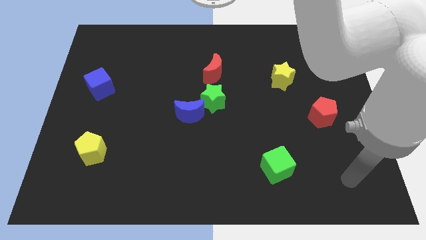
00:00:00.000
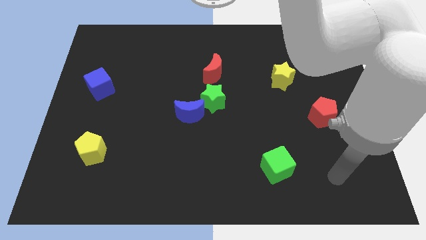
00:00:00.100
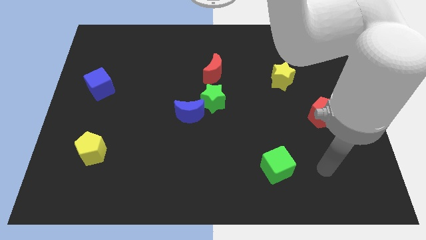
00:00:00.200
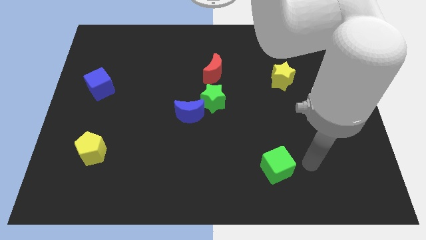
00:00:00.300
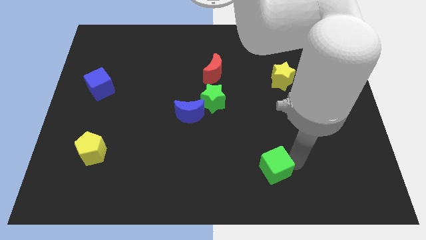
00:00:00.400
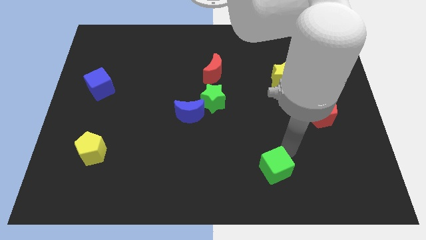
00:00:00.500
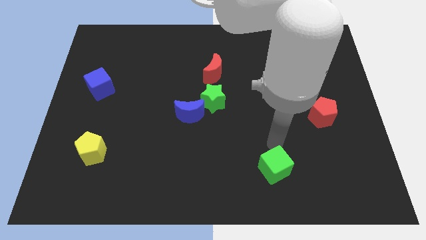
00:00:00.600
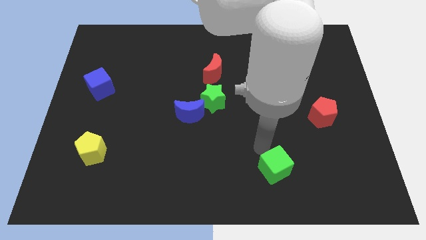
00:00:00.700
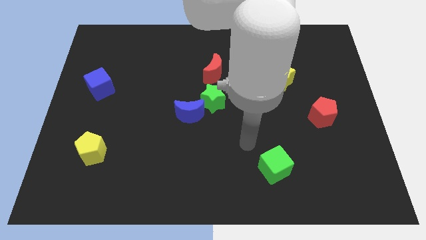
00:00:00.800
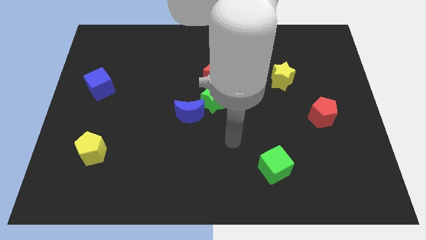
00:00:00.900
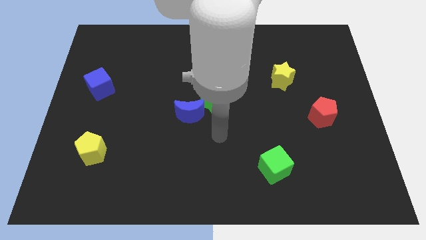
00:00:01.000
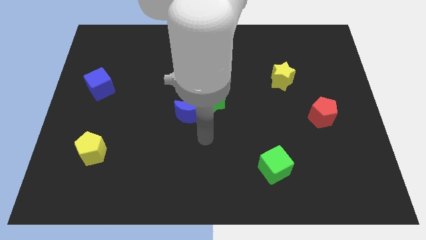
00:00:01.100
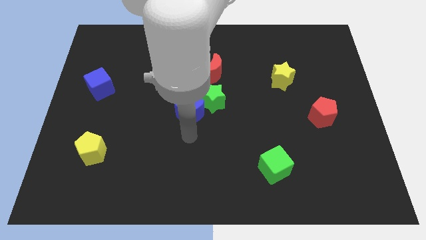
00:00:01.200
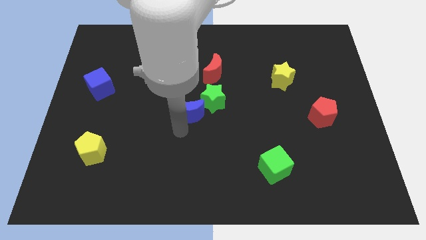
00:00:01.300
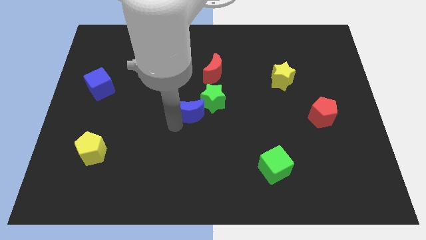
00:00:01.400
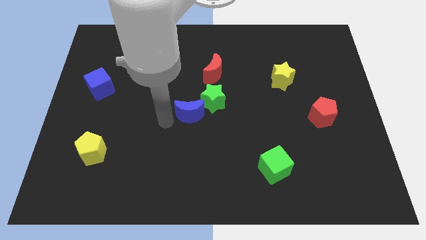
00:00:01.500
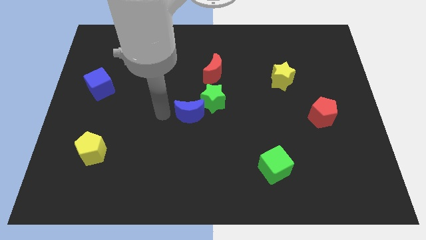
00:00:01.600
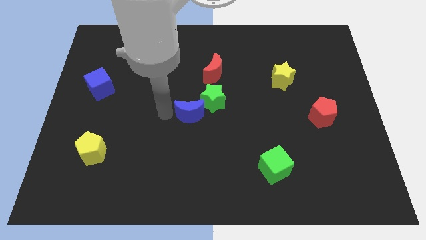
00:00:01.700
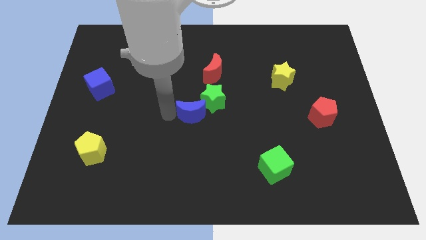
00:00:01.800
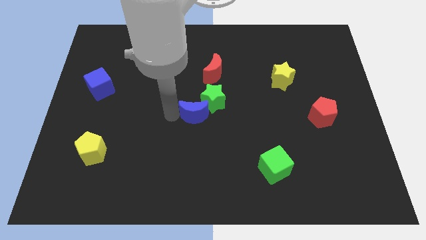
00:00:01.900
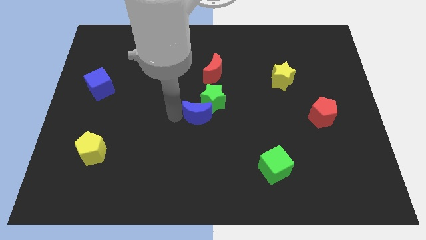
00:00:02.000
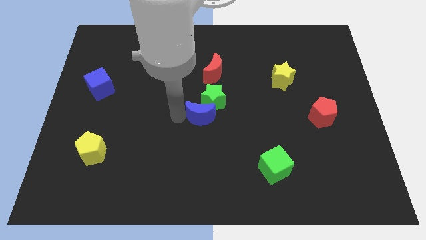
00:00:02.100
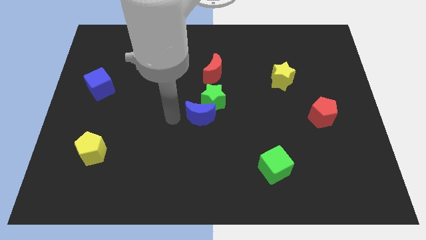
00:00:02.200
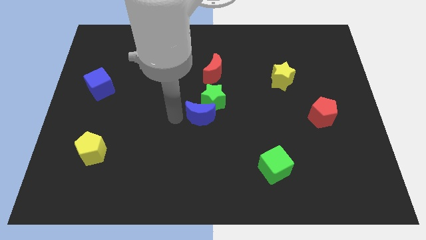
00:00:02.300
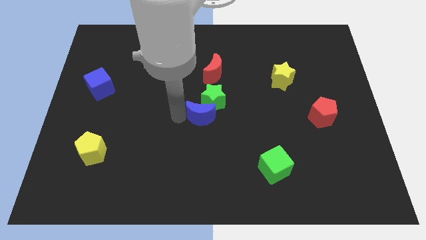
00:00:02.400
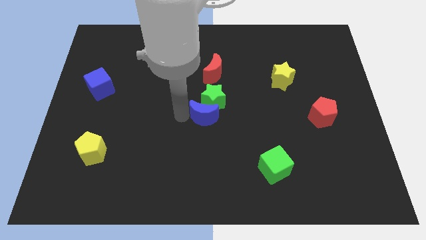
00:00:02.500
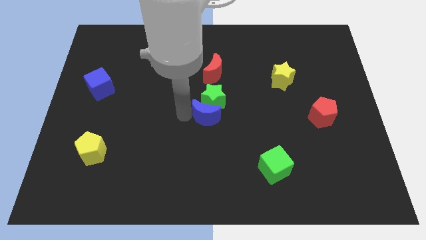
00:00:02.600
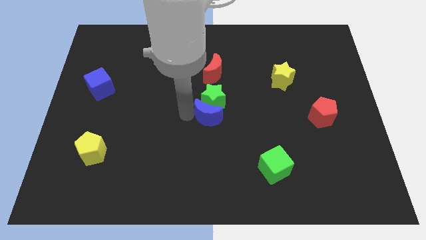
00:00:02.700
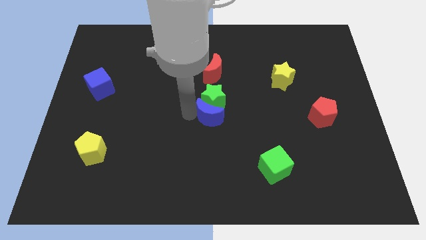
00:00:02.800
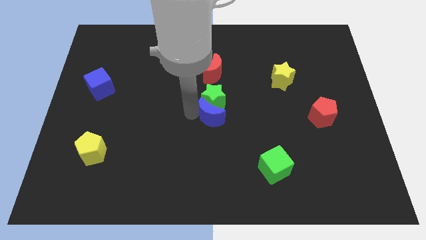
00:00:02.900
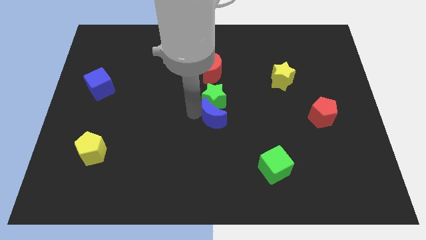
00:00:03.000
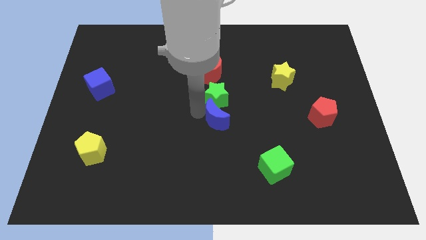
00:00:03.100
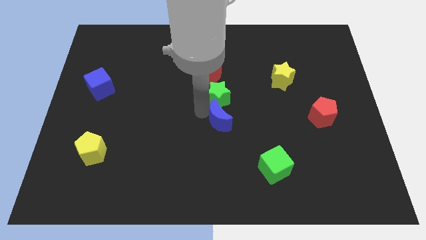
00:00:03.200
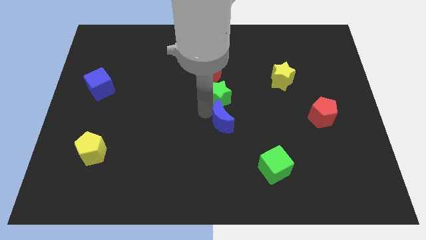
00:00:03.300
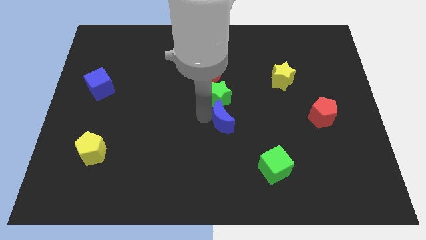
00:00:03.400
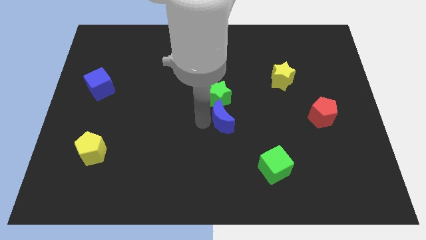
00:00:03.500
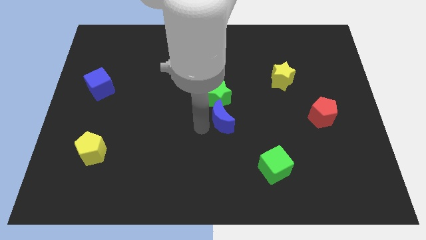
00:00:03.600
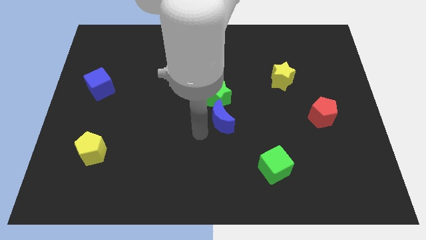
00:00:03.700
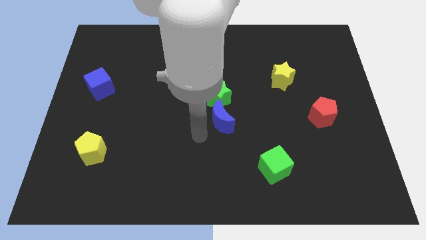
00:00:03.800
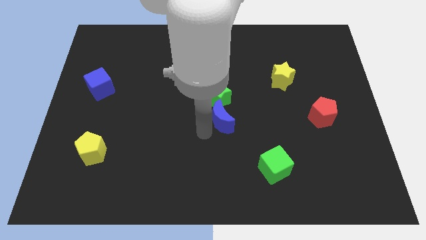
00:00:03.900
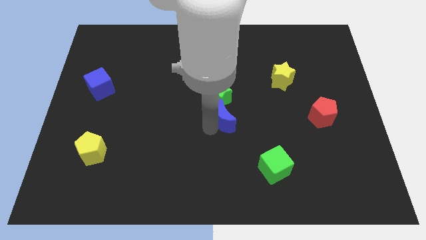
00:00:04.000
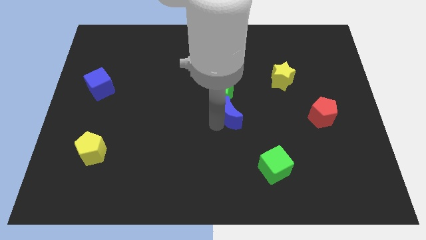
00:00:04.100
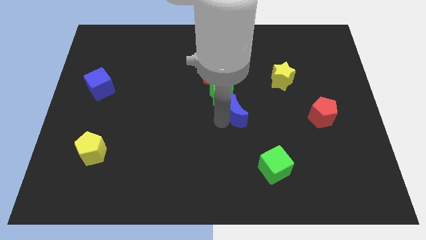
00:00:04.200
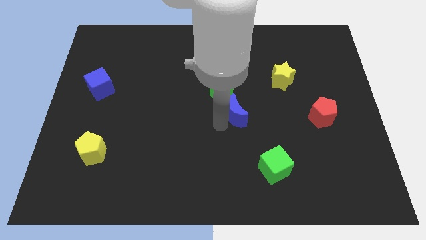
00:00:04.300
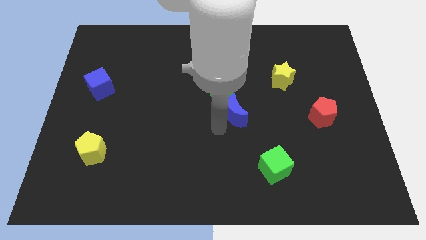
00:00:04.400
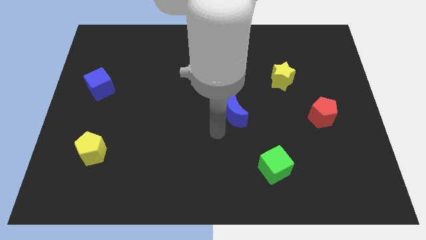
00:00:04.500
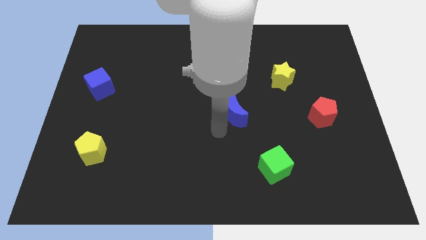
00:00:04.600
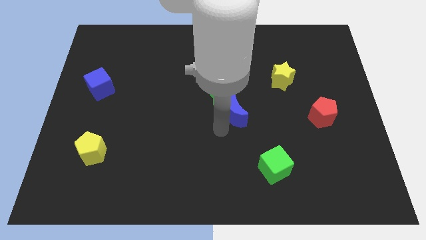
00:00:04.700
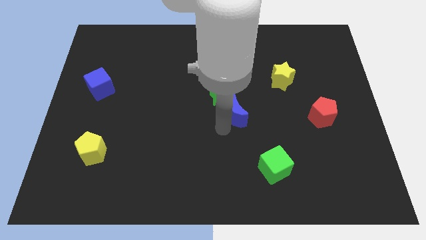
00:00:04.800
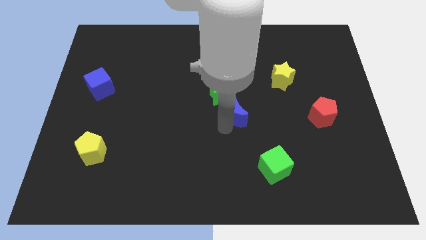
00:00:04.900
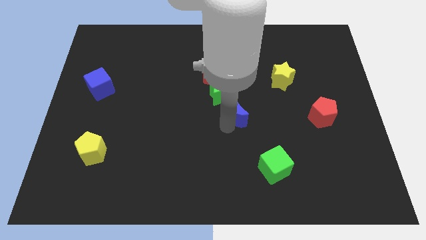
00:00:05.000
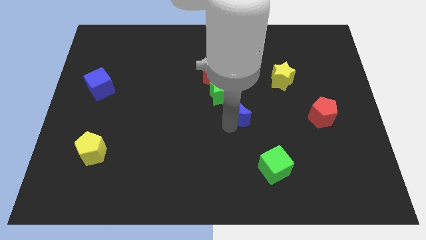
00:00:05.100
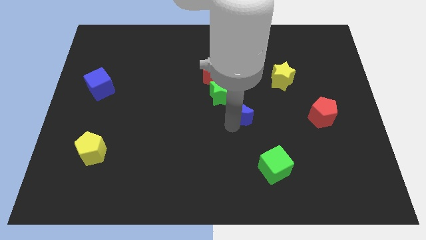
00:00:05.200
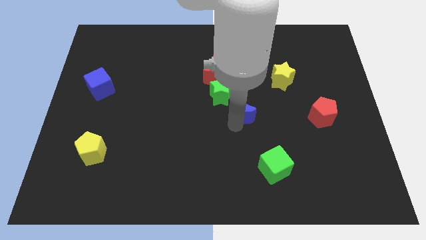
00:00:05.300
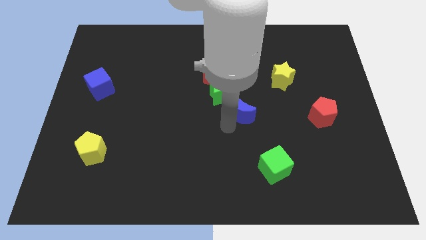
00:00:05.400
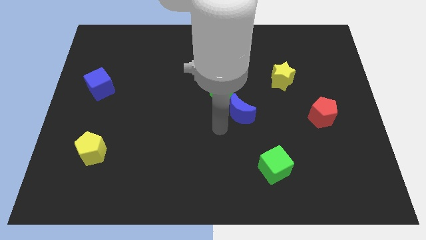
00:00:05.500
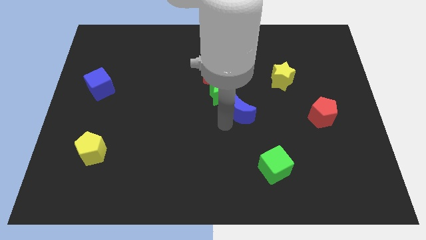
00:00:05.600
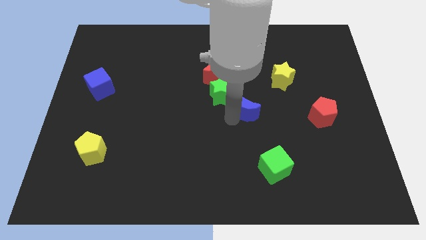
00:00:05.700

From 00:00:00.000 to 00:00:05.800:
push the blue moon to the right of the green star
